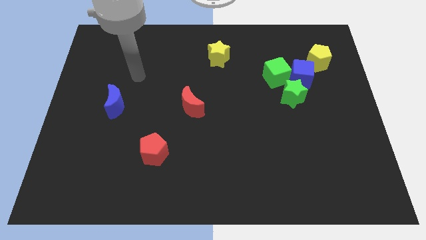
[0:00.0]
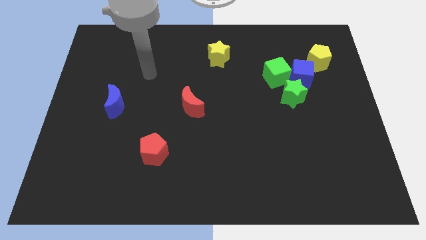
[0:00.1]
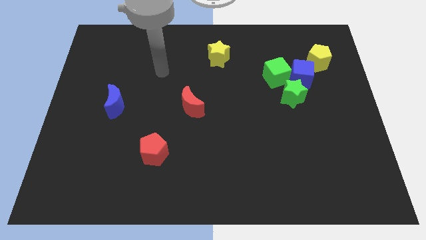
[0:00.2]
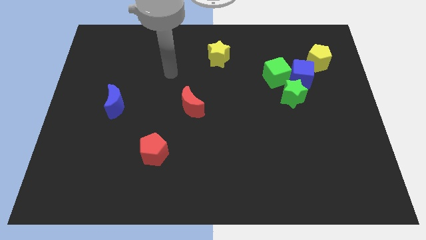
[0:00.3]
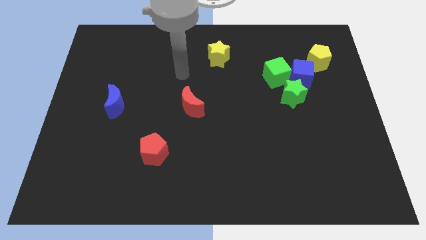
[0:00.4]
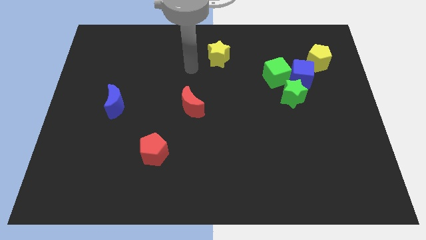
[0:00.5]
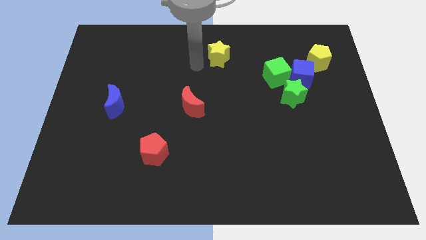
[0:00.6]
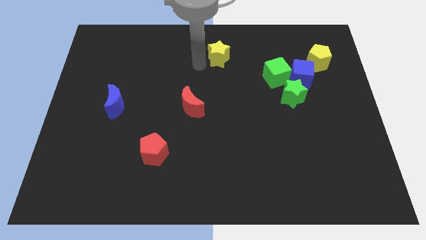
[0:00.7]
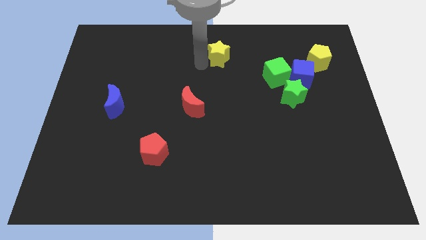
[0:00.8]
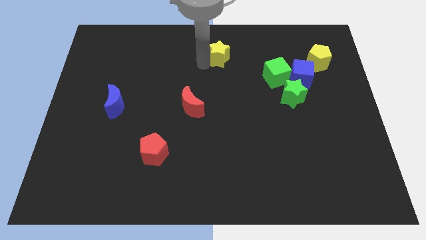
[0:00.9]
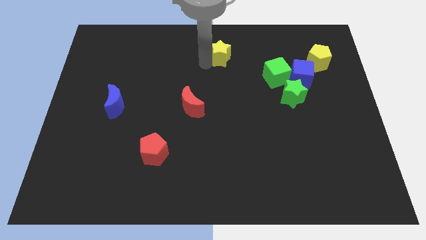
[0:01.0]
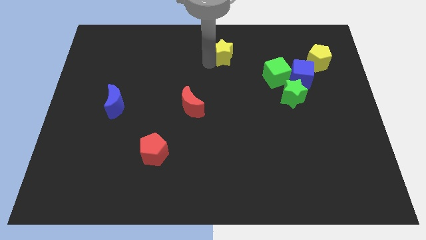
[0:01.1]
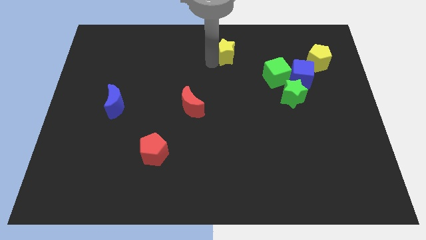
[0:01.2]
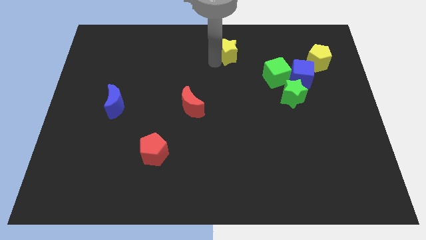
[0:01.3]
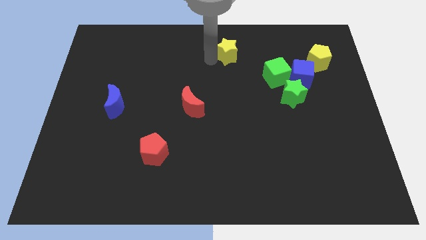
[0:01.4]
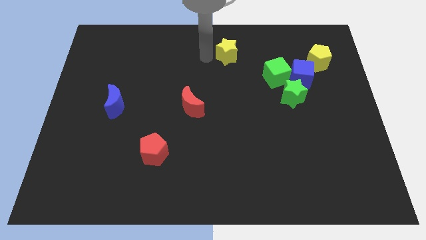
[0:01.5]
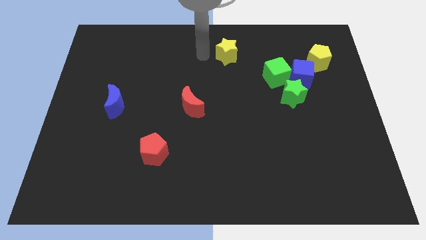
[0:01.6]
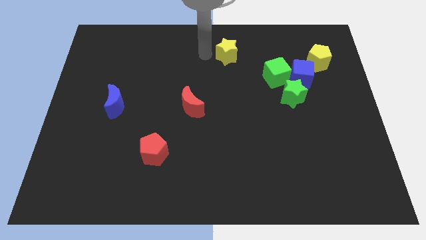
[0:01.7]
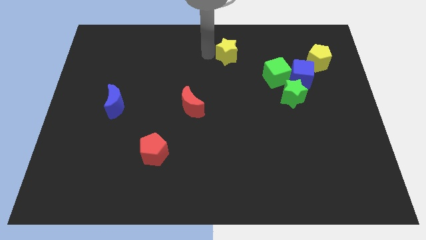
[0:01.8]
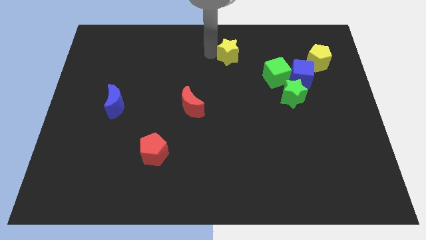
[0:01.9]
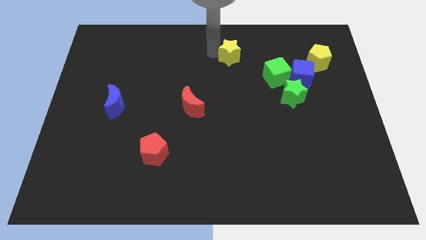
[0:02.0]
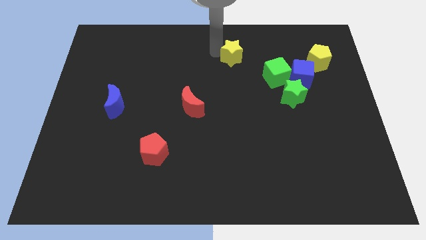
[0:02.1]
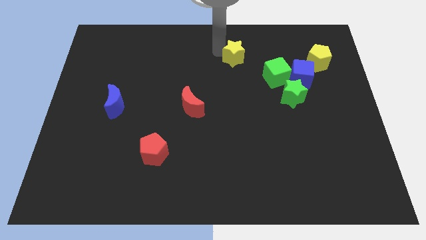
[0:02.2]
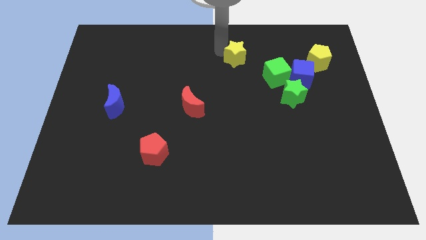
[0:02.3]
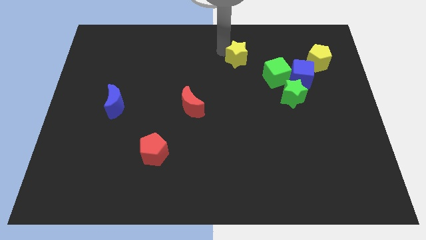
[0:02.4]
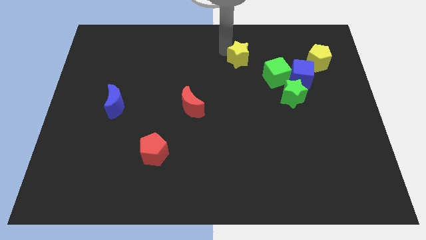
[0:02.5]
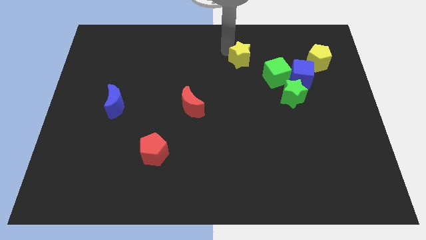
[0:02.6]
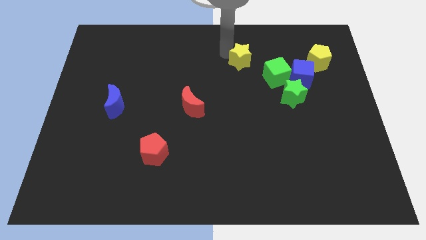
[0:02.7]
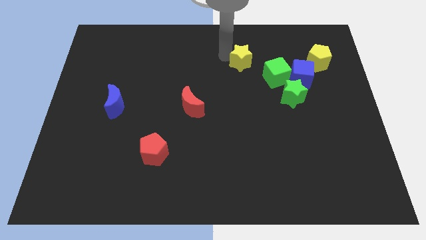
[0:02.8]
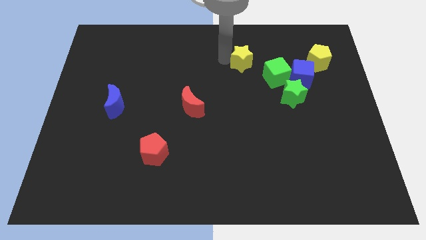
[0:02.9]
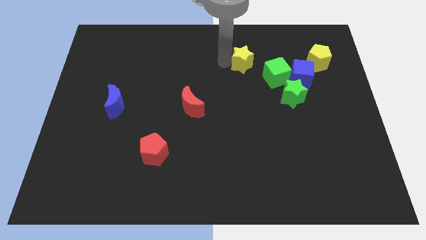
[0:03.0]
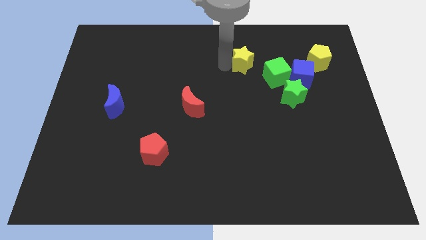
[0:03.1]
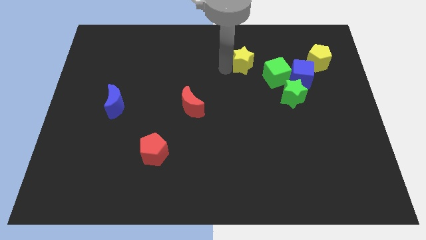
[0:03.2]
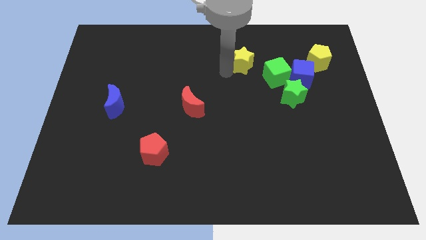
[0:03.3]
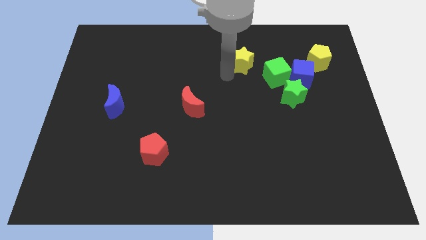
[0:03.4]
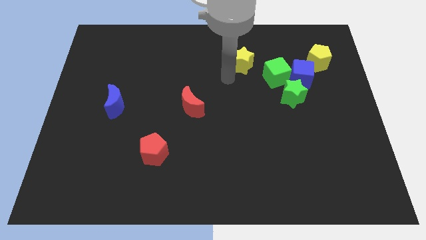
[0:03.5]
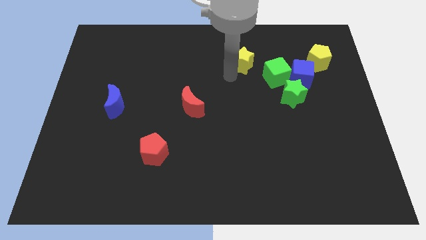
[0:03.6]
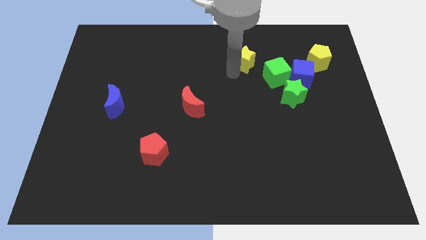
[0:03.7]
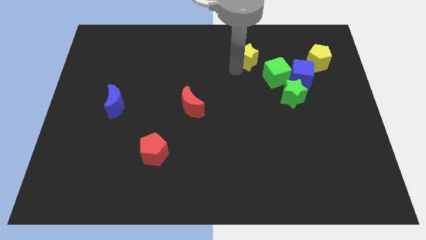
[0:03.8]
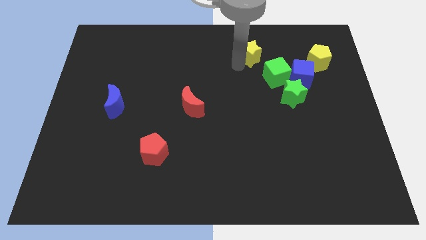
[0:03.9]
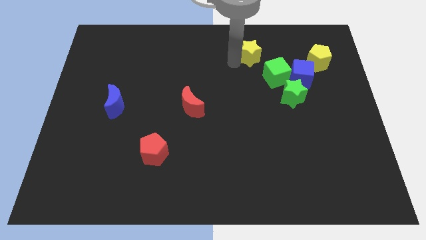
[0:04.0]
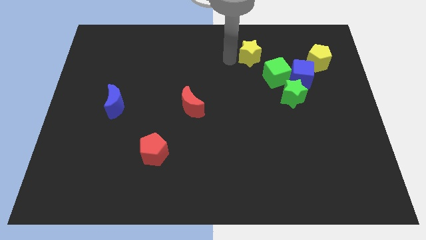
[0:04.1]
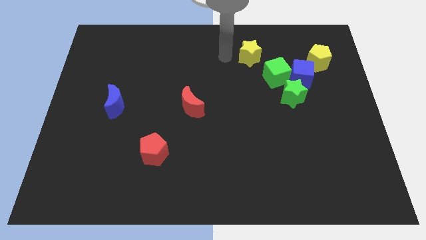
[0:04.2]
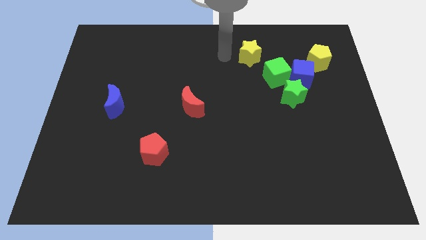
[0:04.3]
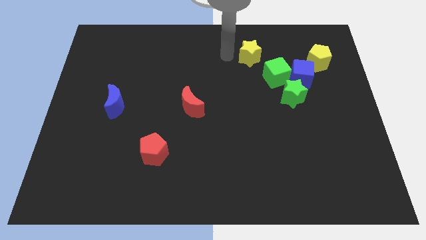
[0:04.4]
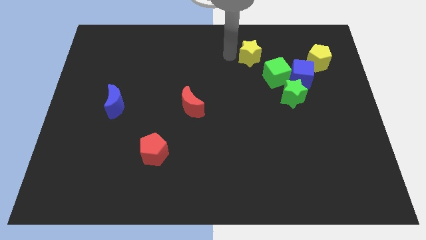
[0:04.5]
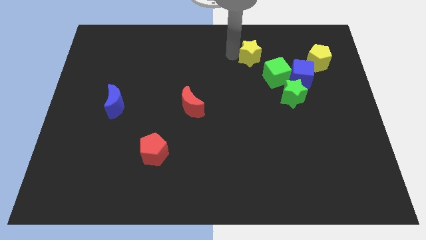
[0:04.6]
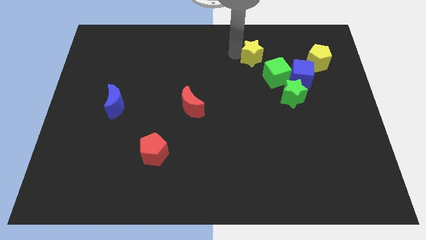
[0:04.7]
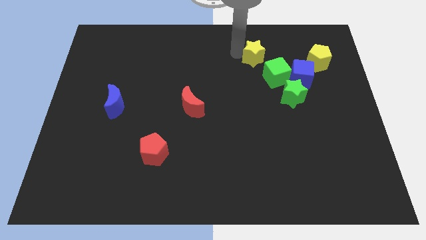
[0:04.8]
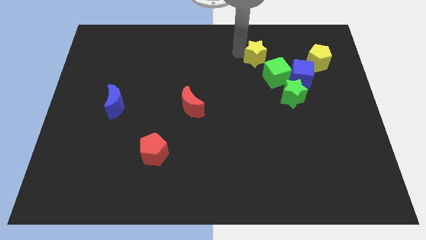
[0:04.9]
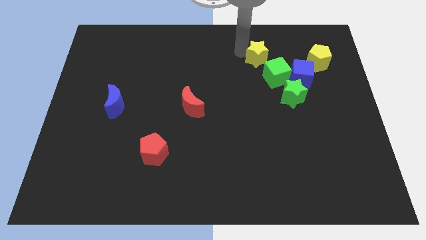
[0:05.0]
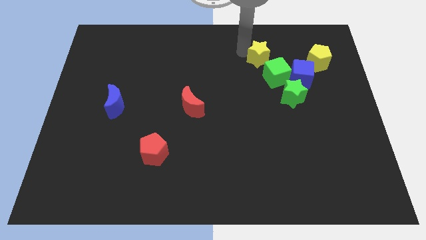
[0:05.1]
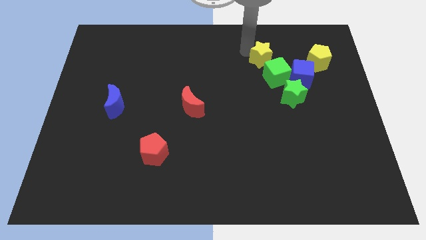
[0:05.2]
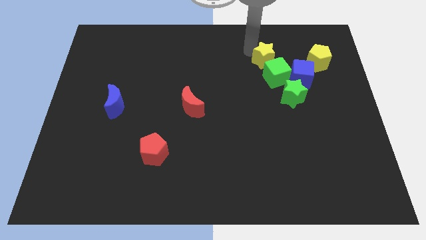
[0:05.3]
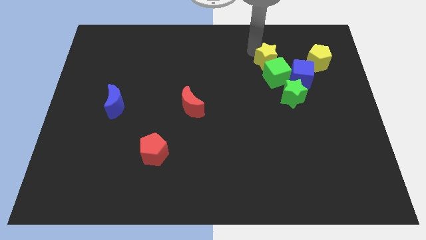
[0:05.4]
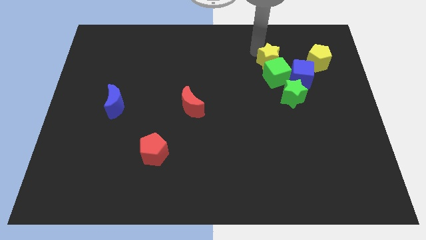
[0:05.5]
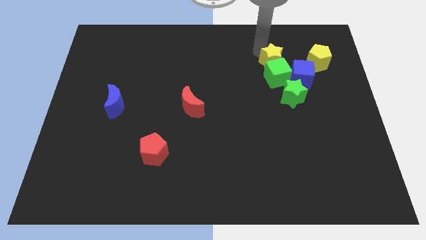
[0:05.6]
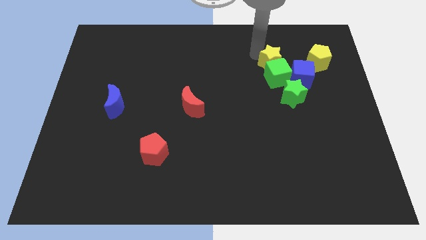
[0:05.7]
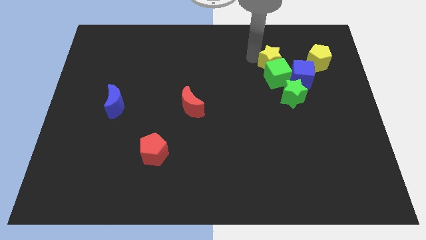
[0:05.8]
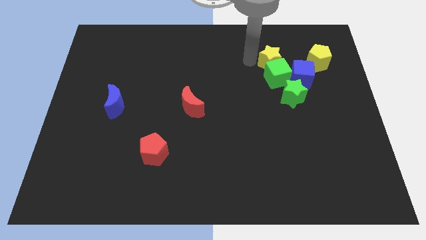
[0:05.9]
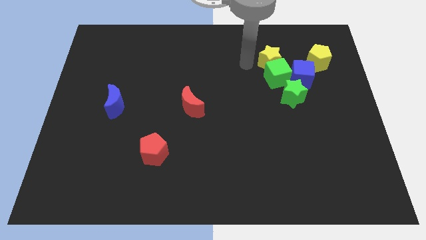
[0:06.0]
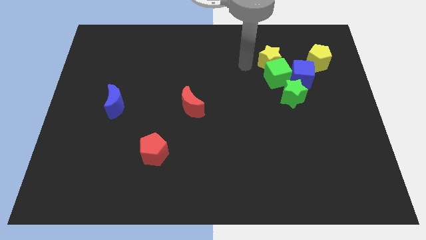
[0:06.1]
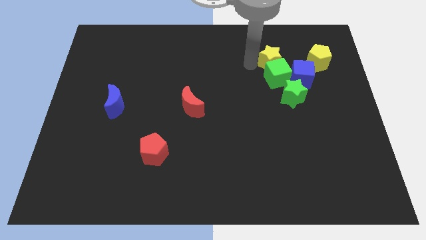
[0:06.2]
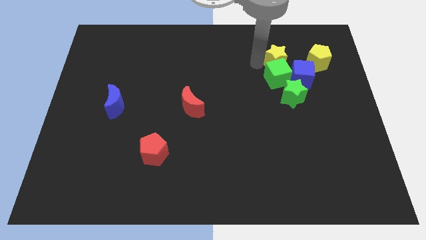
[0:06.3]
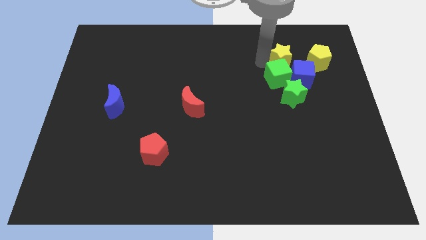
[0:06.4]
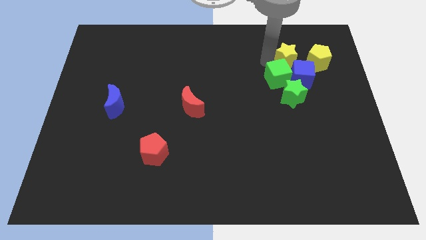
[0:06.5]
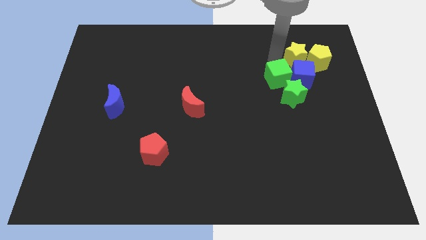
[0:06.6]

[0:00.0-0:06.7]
put the yellow star next to the yellow pentagon
